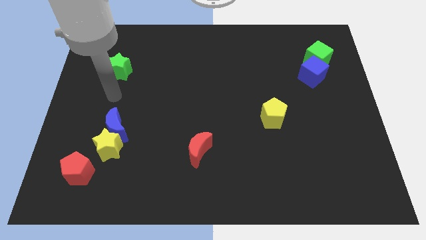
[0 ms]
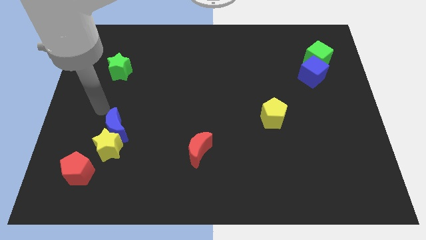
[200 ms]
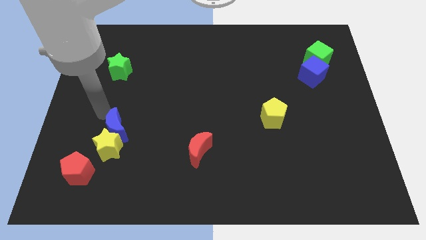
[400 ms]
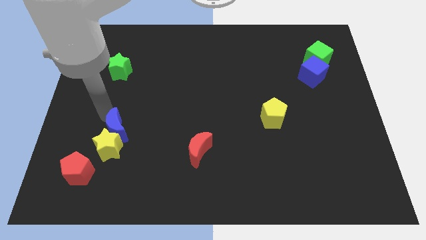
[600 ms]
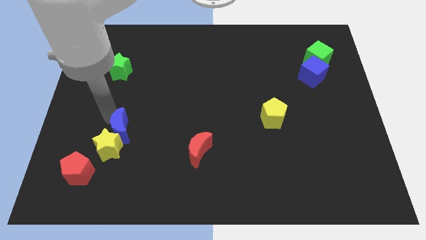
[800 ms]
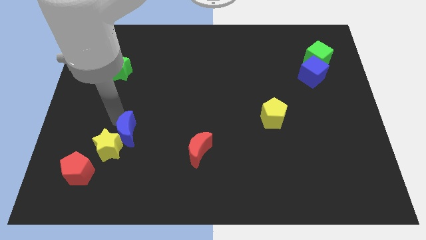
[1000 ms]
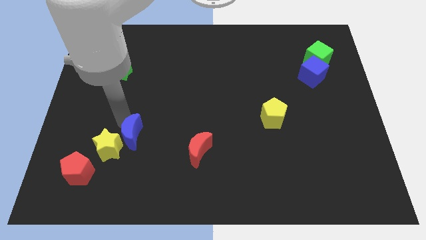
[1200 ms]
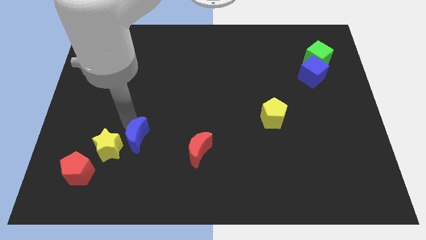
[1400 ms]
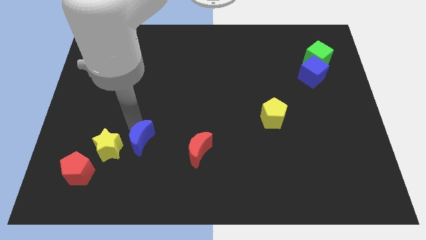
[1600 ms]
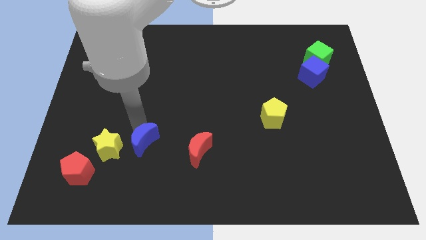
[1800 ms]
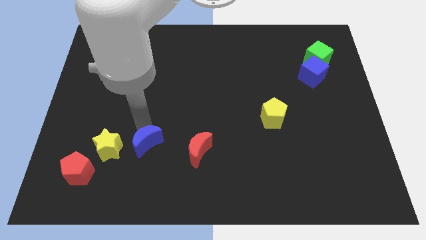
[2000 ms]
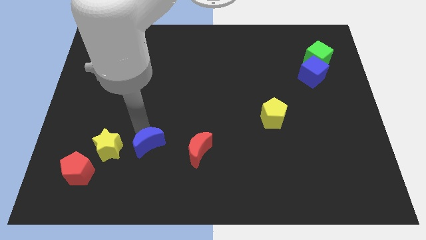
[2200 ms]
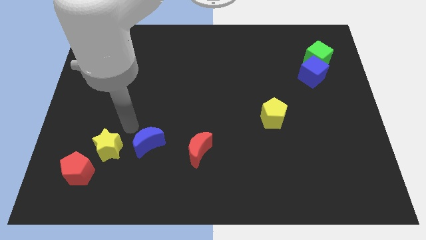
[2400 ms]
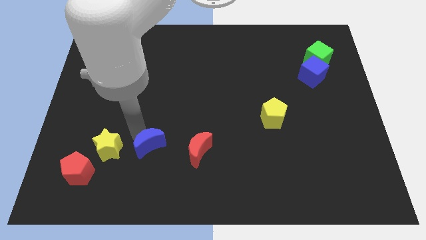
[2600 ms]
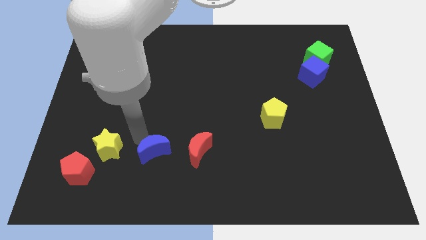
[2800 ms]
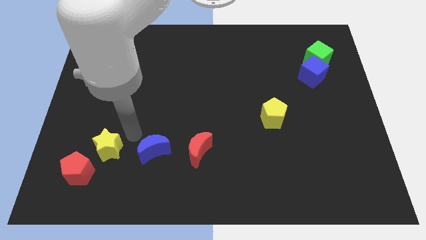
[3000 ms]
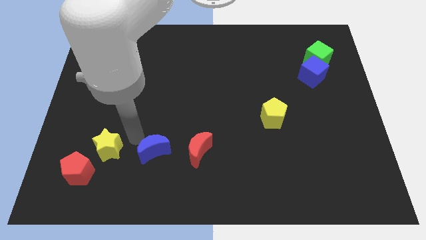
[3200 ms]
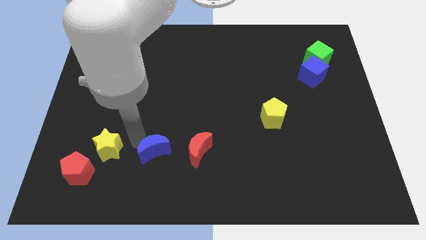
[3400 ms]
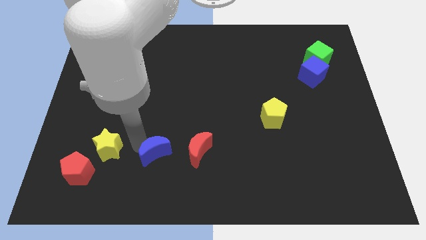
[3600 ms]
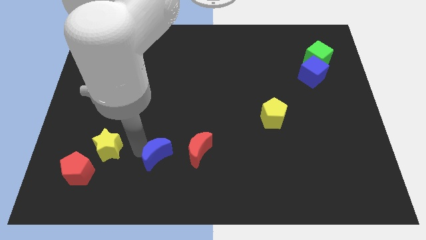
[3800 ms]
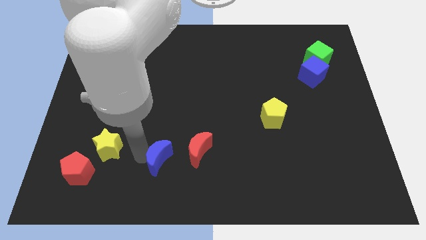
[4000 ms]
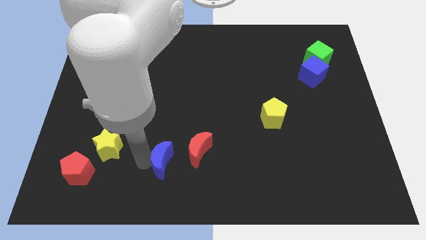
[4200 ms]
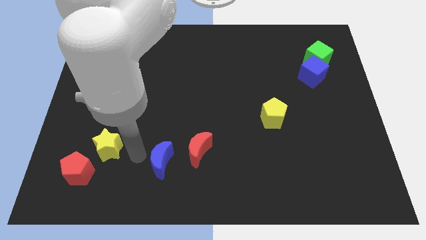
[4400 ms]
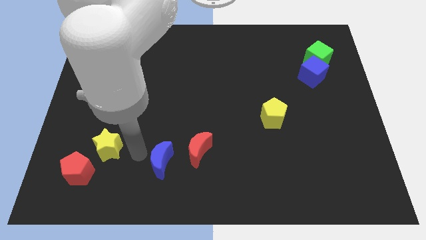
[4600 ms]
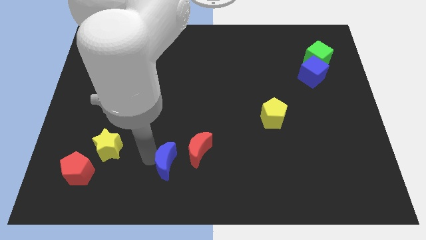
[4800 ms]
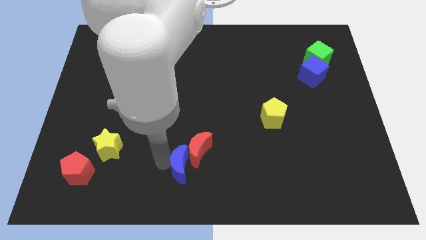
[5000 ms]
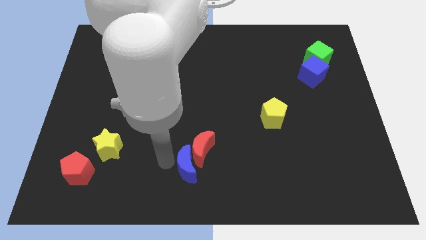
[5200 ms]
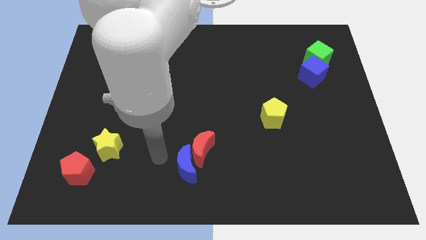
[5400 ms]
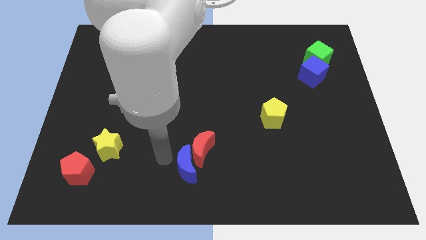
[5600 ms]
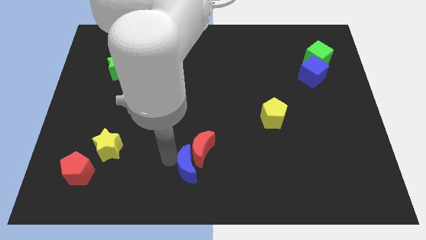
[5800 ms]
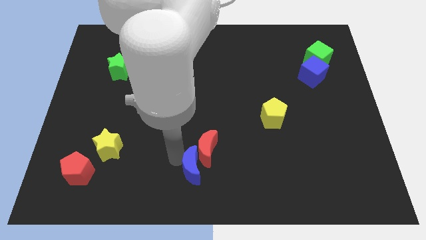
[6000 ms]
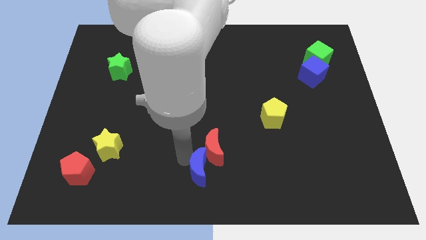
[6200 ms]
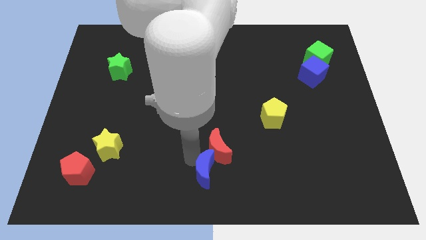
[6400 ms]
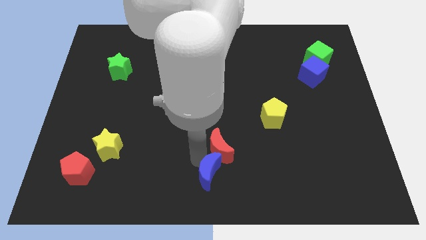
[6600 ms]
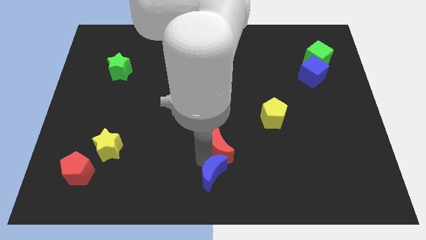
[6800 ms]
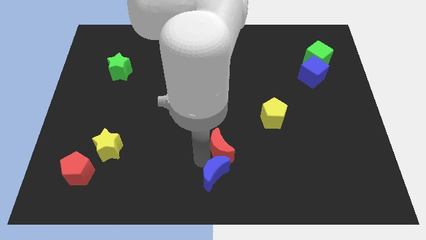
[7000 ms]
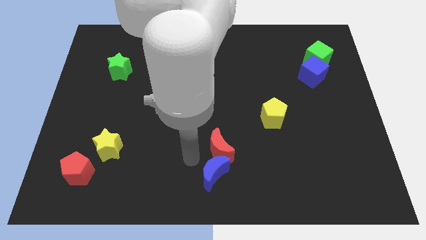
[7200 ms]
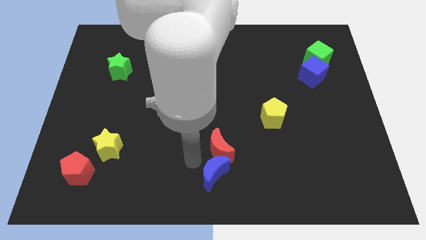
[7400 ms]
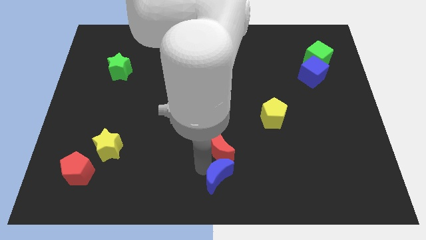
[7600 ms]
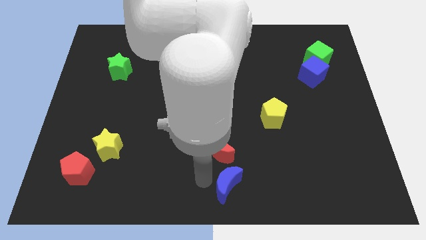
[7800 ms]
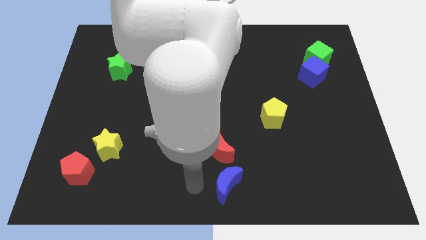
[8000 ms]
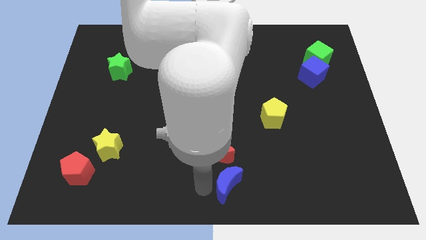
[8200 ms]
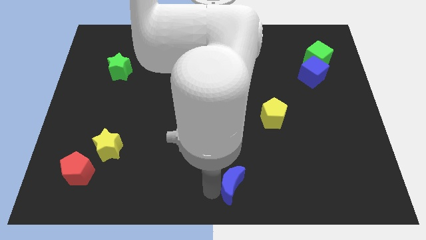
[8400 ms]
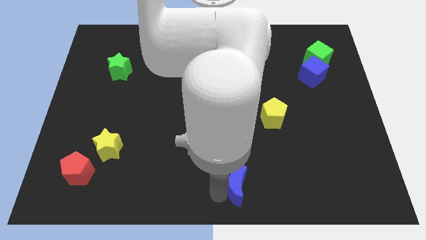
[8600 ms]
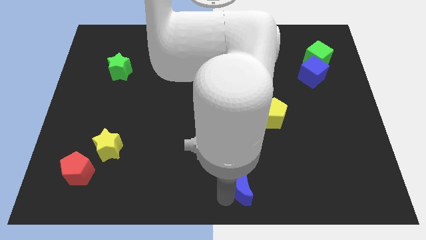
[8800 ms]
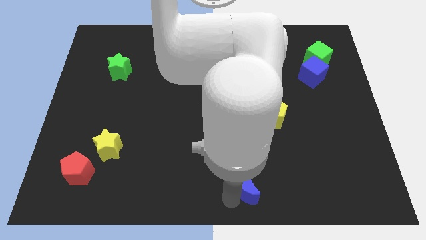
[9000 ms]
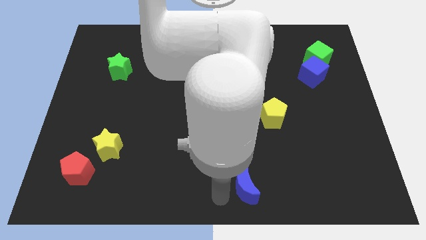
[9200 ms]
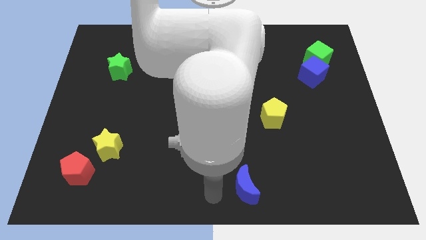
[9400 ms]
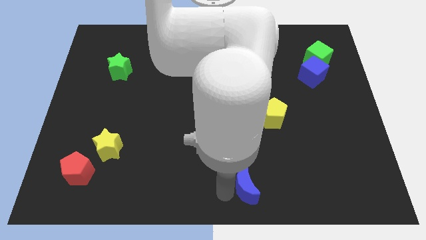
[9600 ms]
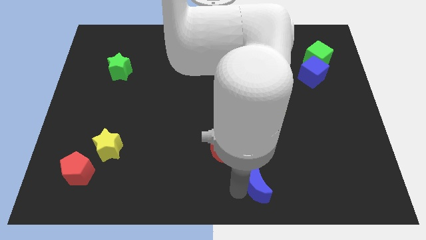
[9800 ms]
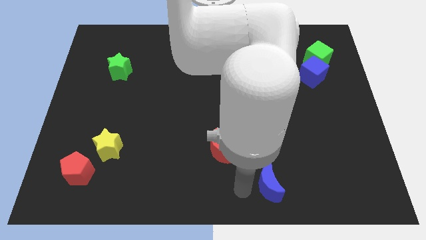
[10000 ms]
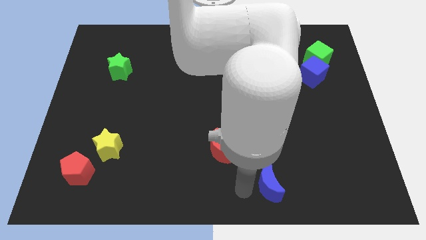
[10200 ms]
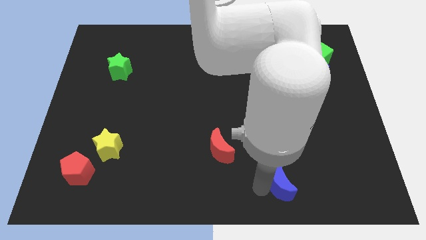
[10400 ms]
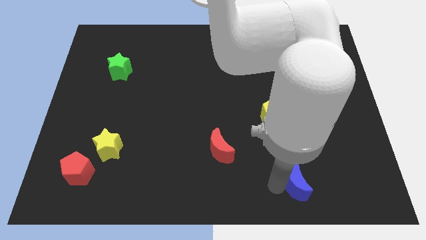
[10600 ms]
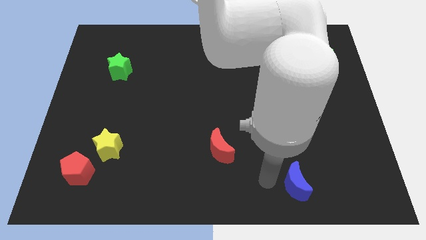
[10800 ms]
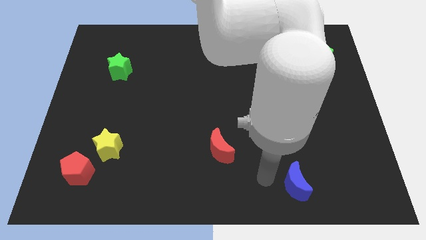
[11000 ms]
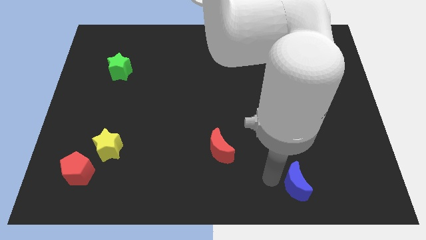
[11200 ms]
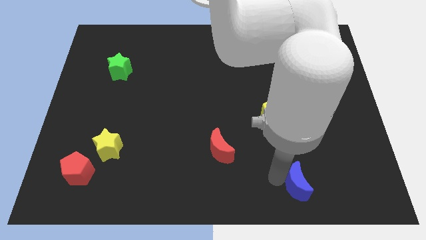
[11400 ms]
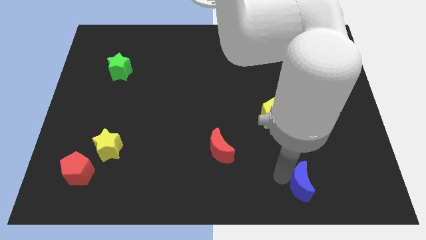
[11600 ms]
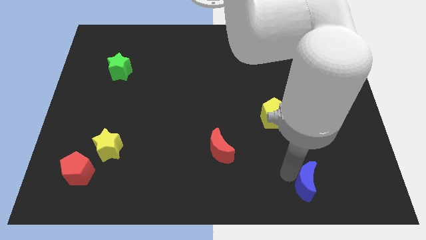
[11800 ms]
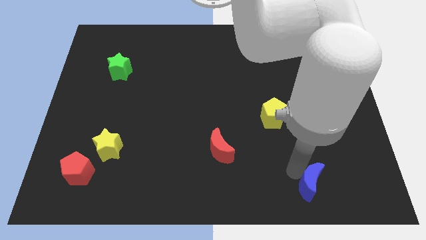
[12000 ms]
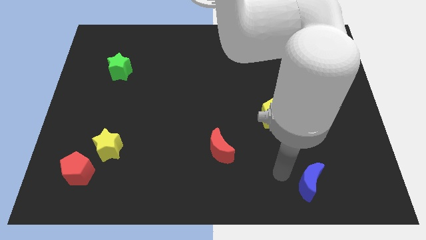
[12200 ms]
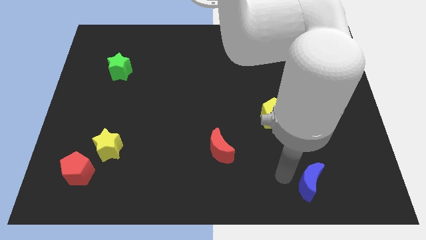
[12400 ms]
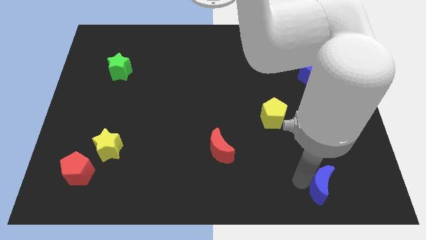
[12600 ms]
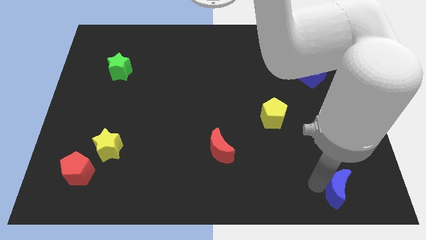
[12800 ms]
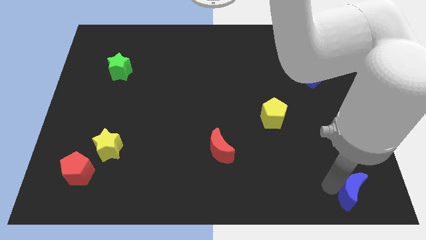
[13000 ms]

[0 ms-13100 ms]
put the blue moon to the lower right corner
